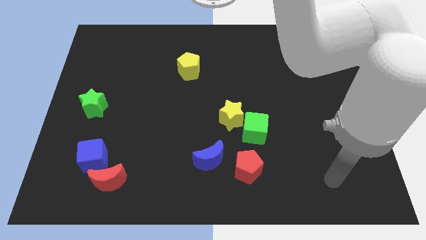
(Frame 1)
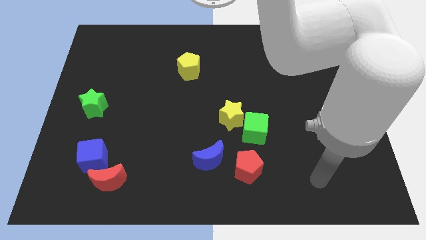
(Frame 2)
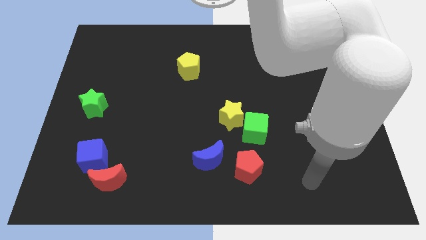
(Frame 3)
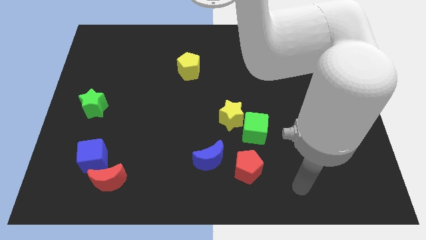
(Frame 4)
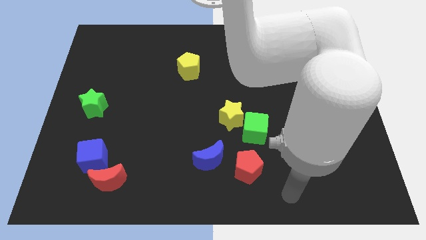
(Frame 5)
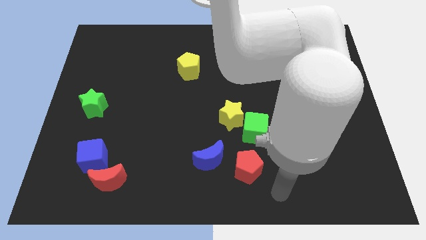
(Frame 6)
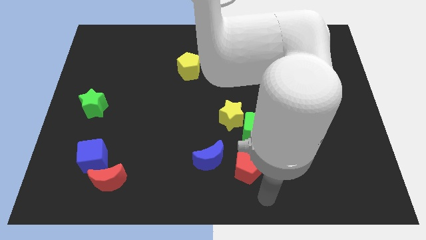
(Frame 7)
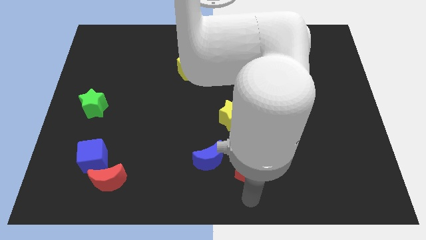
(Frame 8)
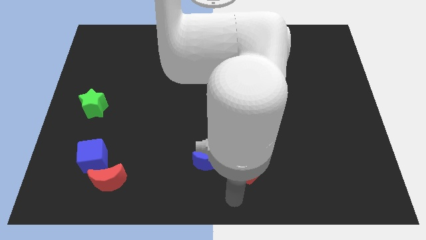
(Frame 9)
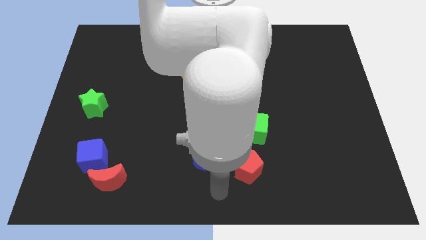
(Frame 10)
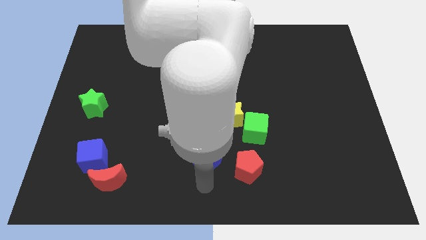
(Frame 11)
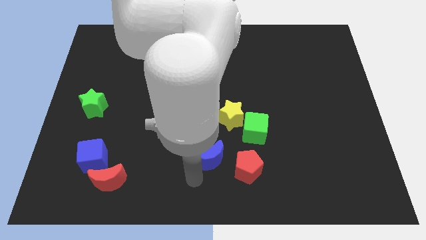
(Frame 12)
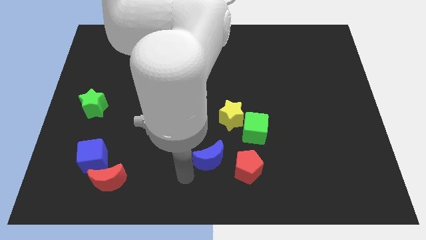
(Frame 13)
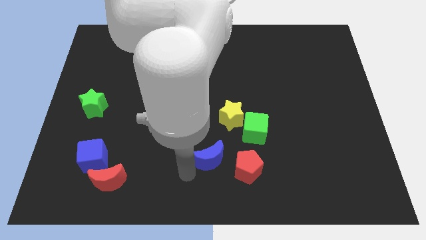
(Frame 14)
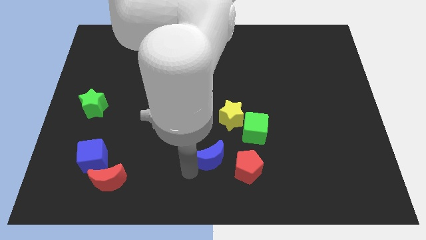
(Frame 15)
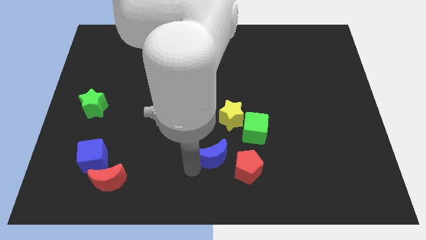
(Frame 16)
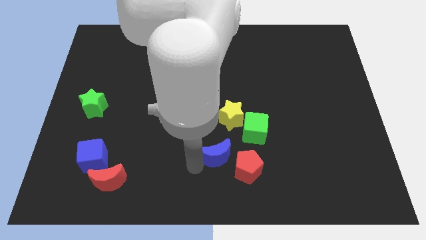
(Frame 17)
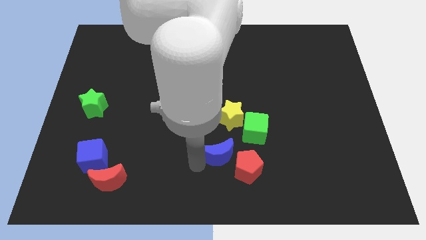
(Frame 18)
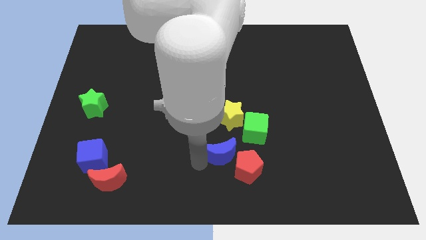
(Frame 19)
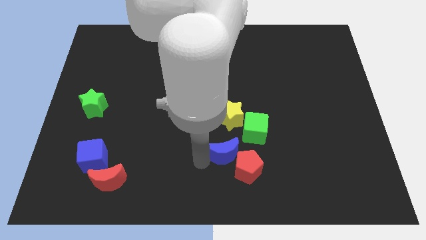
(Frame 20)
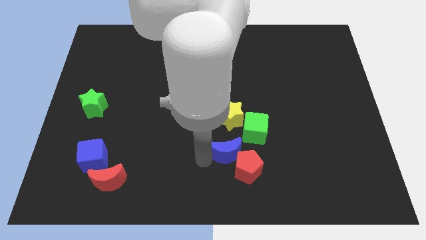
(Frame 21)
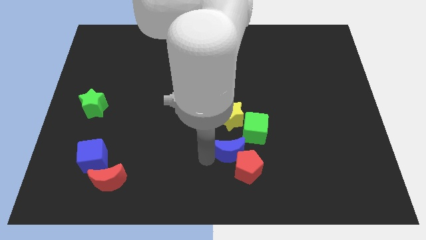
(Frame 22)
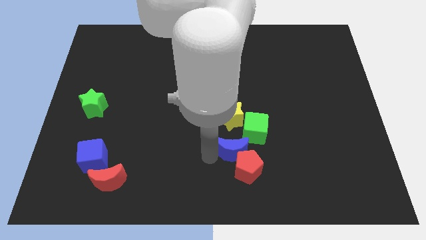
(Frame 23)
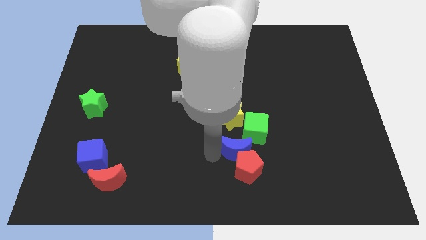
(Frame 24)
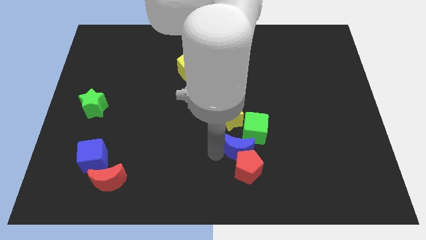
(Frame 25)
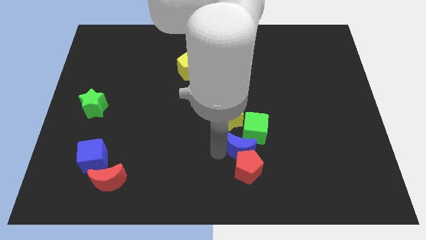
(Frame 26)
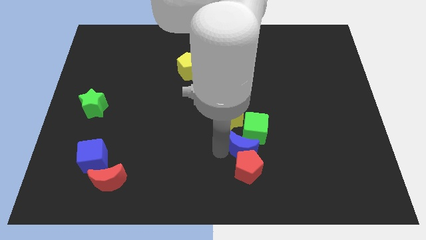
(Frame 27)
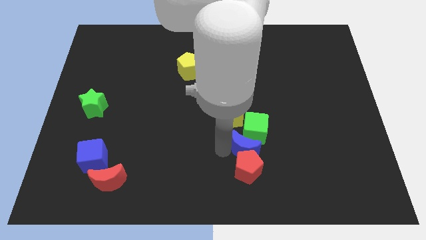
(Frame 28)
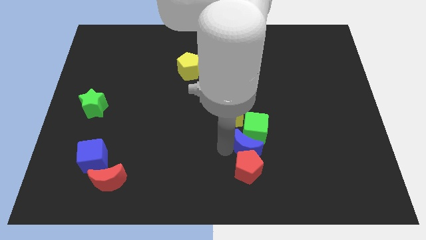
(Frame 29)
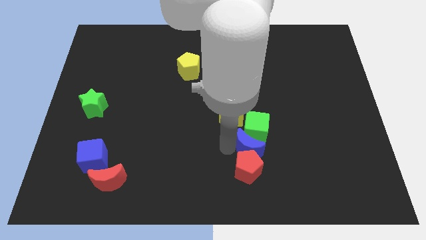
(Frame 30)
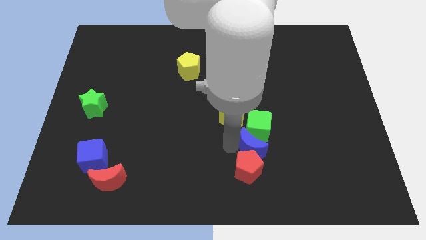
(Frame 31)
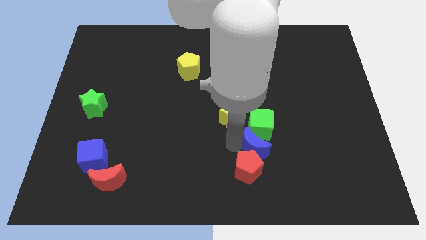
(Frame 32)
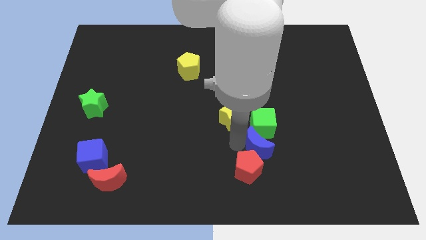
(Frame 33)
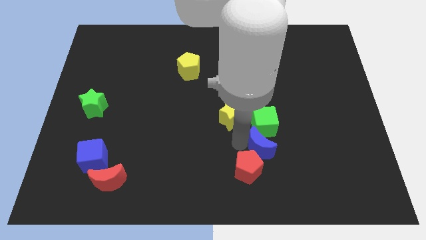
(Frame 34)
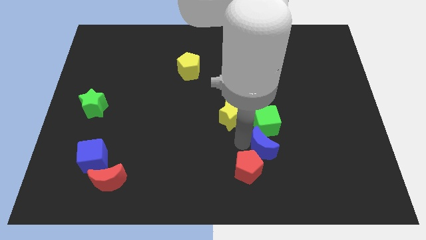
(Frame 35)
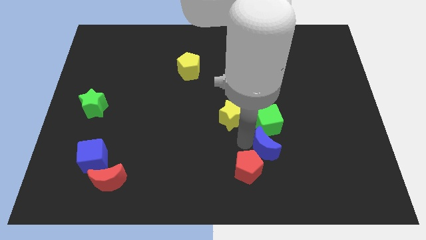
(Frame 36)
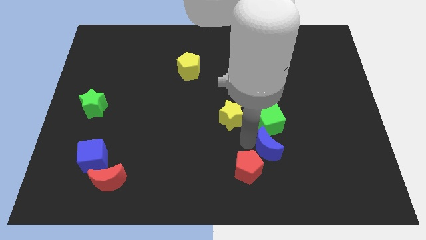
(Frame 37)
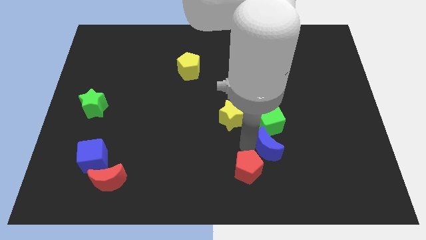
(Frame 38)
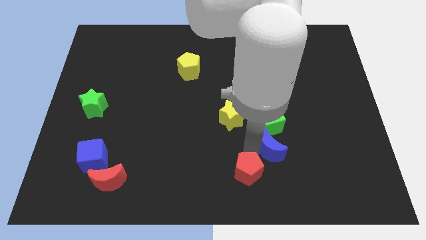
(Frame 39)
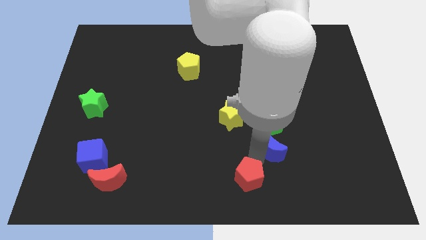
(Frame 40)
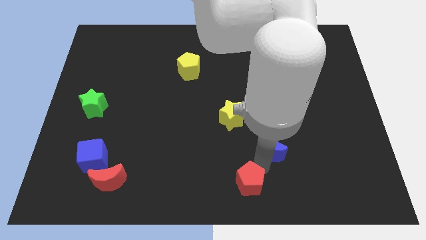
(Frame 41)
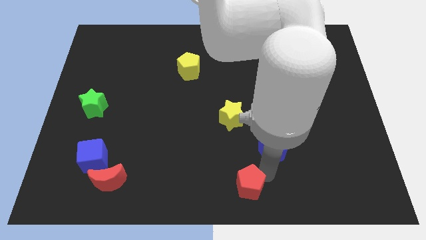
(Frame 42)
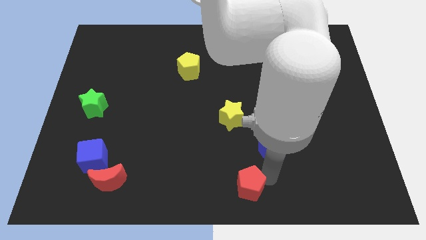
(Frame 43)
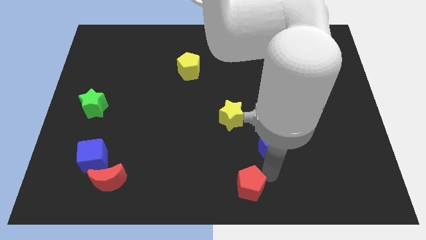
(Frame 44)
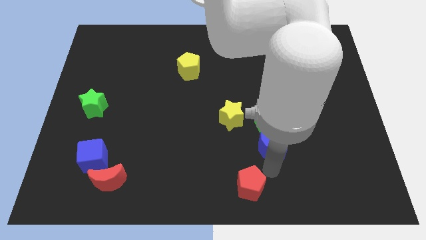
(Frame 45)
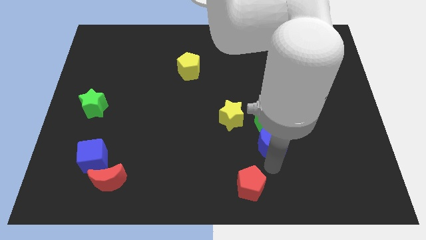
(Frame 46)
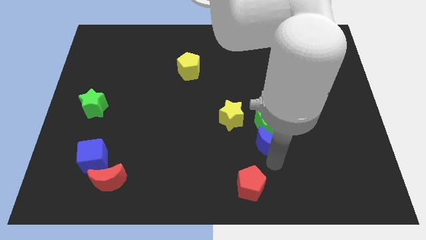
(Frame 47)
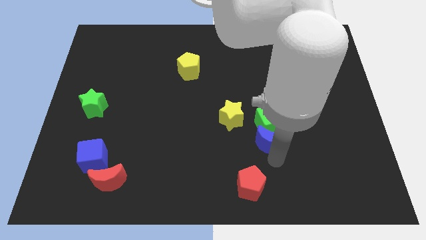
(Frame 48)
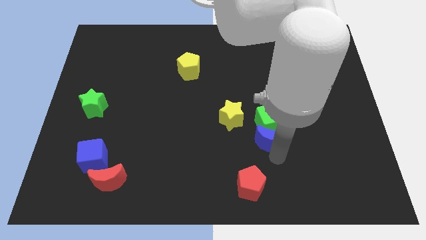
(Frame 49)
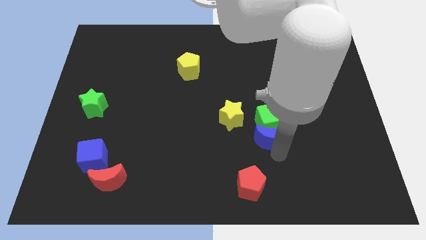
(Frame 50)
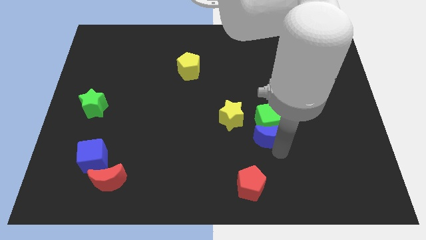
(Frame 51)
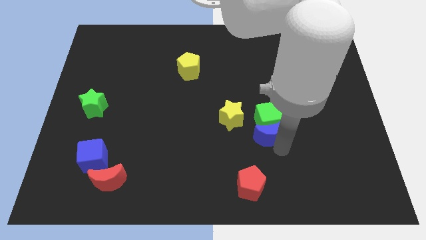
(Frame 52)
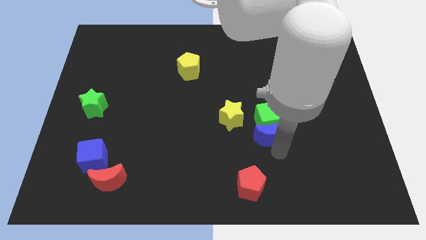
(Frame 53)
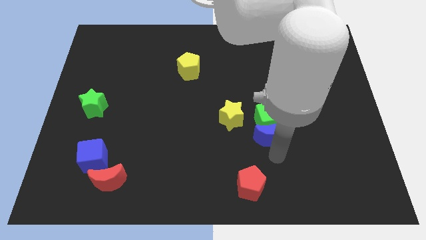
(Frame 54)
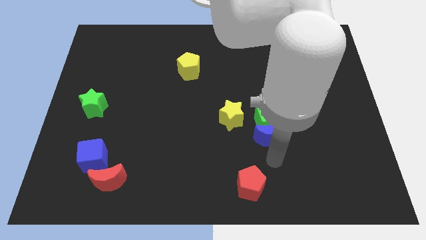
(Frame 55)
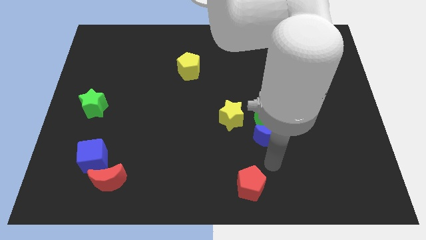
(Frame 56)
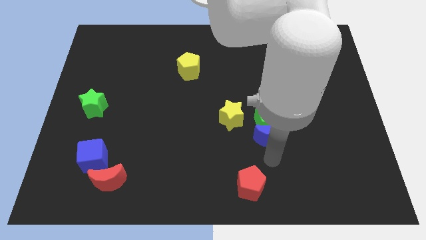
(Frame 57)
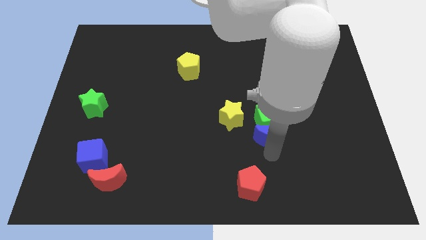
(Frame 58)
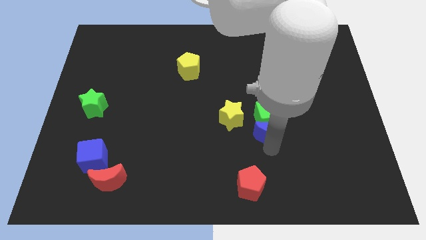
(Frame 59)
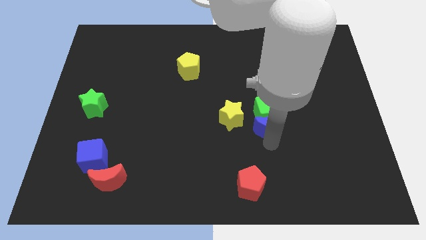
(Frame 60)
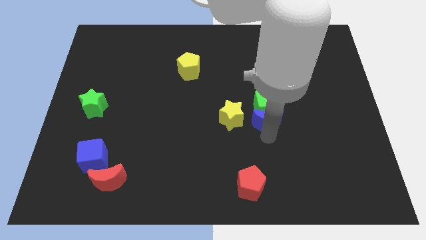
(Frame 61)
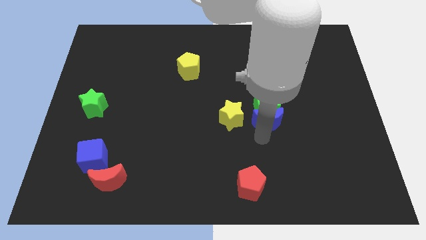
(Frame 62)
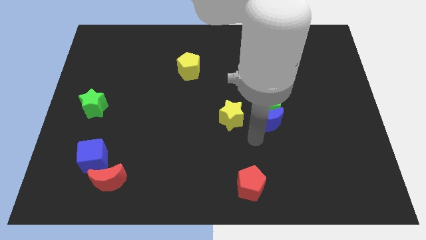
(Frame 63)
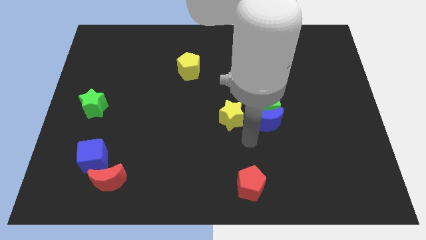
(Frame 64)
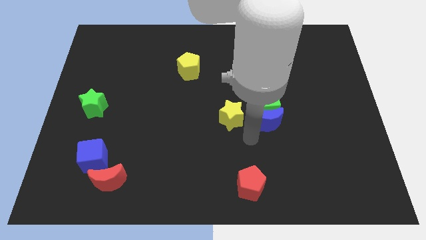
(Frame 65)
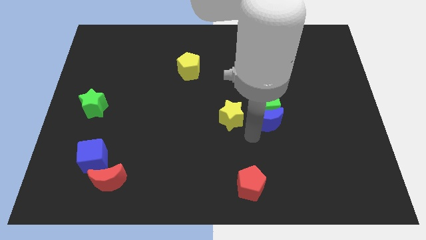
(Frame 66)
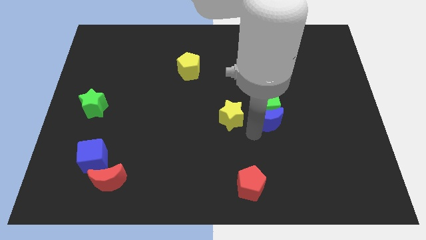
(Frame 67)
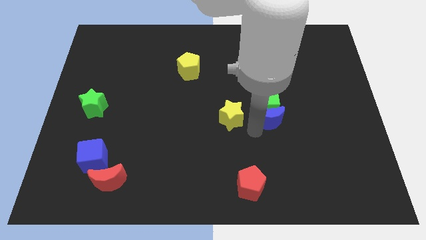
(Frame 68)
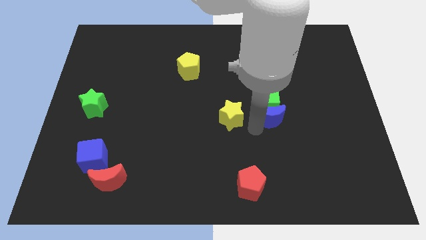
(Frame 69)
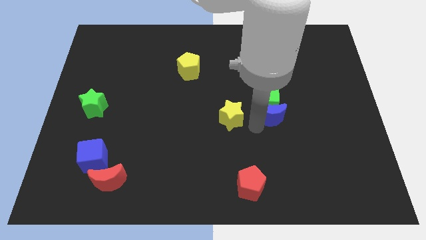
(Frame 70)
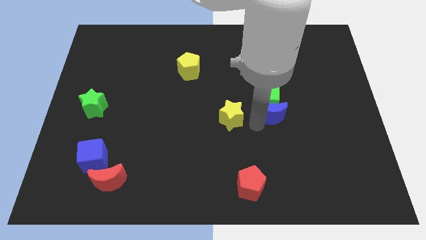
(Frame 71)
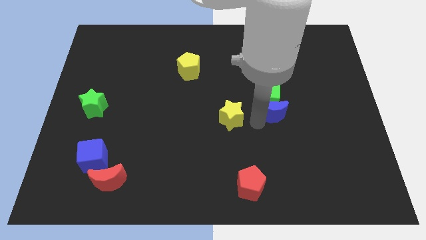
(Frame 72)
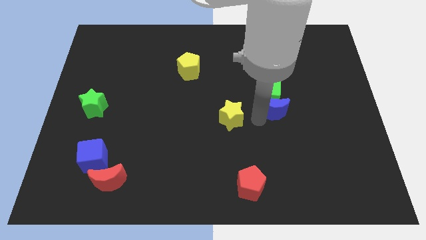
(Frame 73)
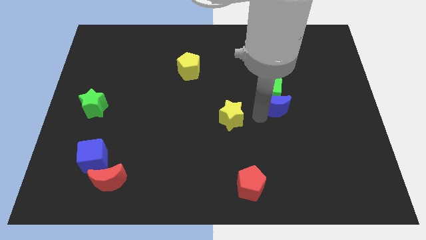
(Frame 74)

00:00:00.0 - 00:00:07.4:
move the blue moon up and then right

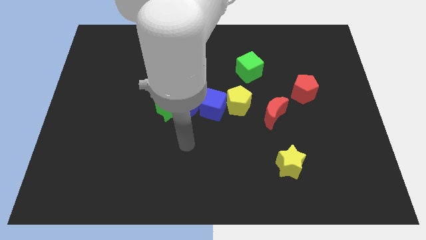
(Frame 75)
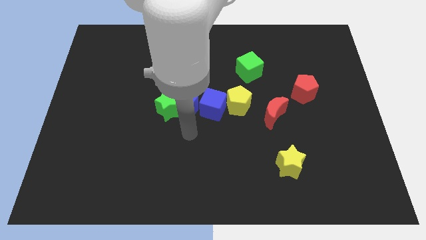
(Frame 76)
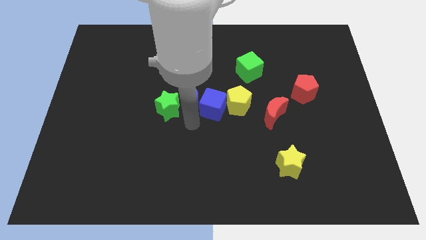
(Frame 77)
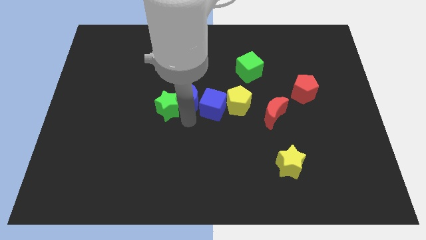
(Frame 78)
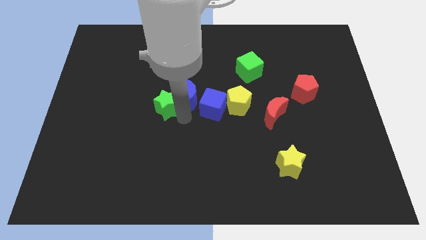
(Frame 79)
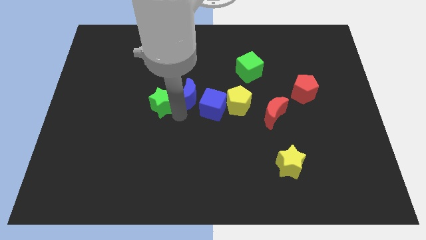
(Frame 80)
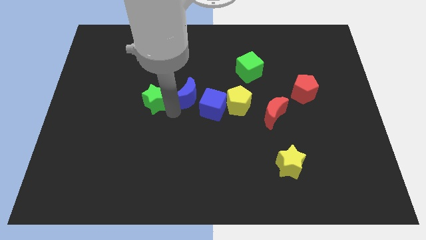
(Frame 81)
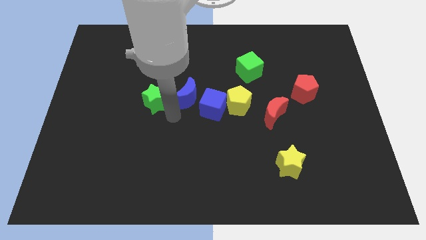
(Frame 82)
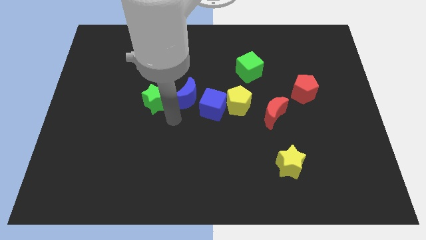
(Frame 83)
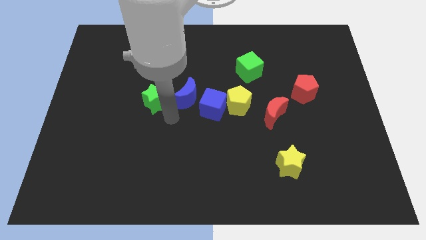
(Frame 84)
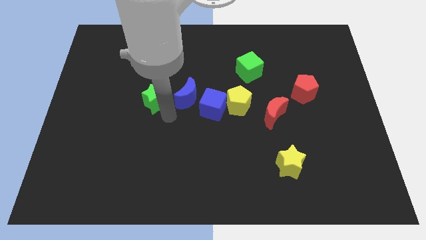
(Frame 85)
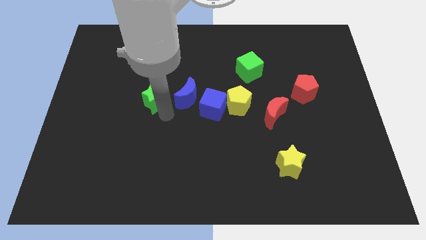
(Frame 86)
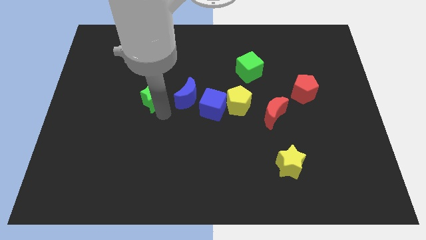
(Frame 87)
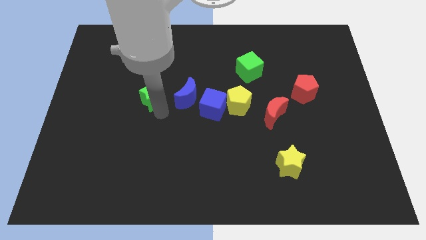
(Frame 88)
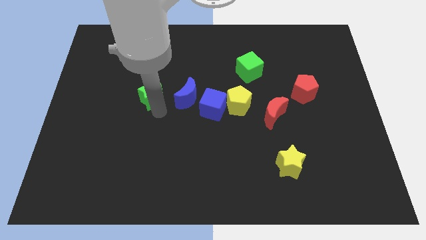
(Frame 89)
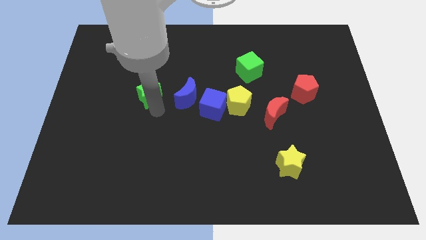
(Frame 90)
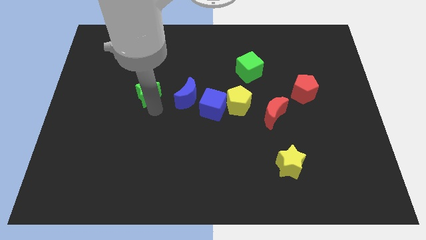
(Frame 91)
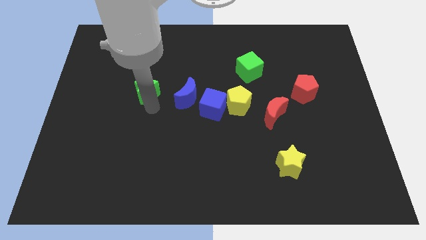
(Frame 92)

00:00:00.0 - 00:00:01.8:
slightly push the green star up and then to the left
